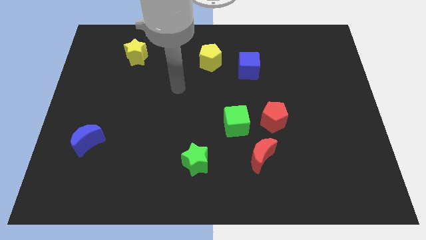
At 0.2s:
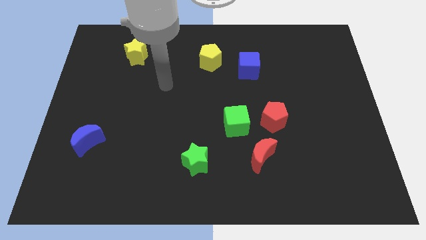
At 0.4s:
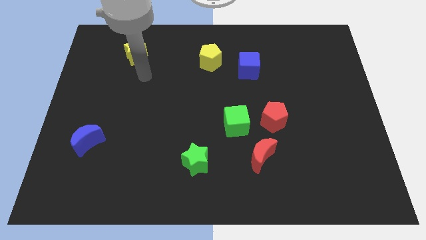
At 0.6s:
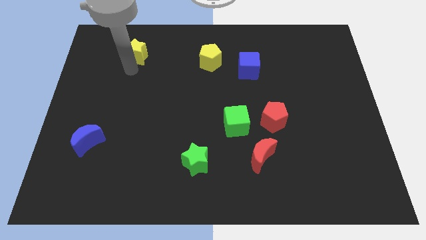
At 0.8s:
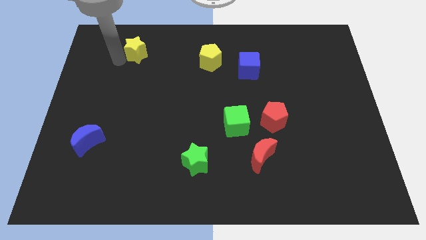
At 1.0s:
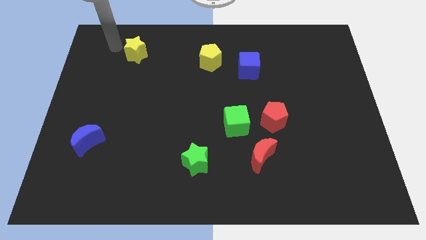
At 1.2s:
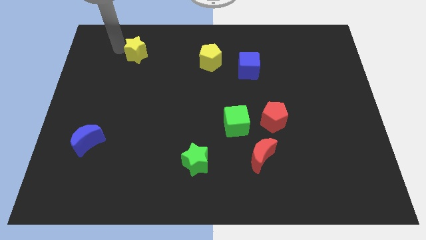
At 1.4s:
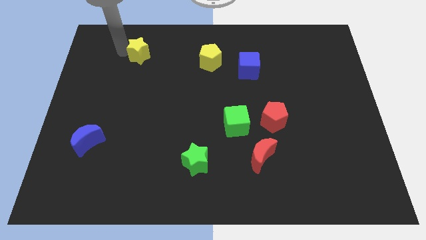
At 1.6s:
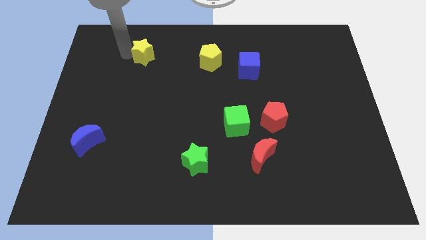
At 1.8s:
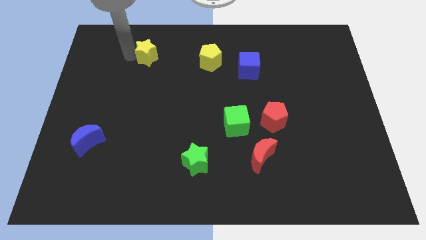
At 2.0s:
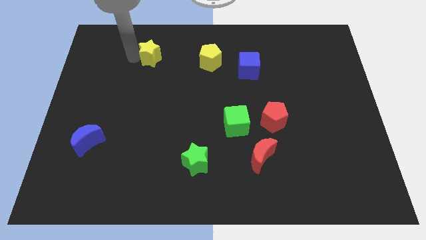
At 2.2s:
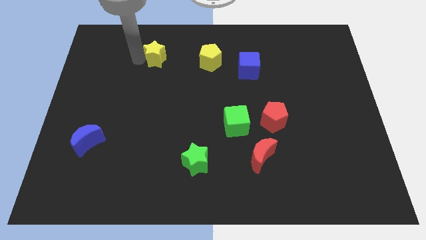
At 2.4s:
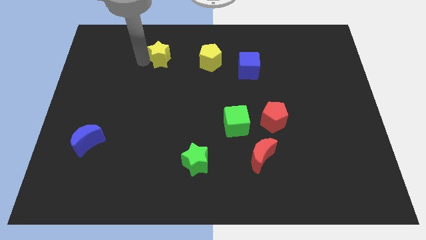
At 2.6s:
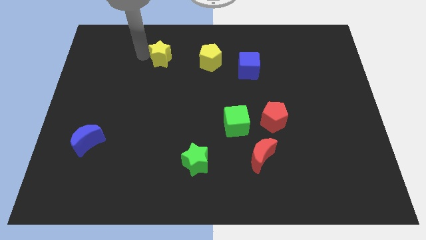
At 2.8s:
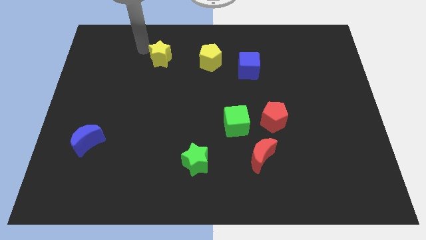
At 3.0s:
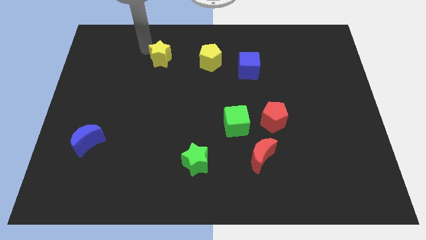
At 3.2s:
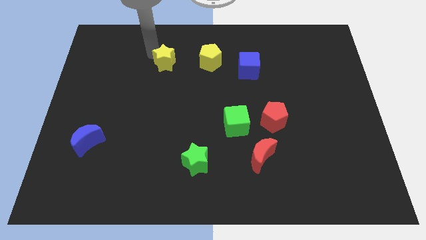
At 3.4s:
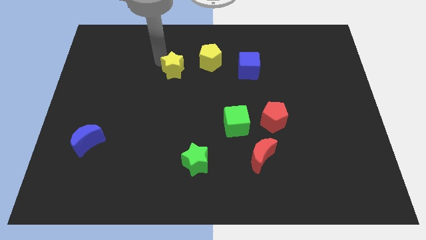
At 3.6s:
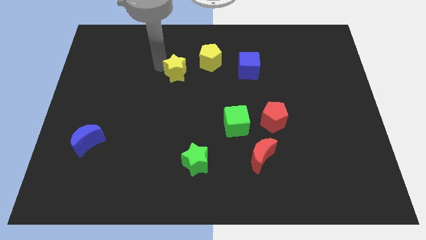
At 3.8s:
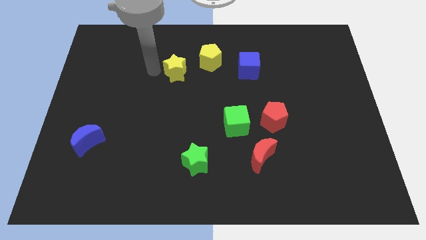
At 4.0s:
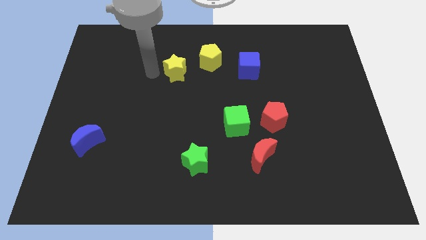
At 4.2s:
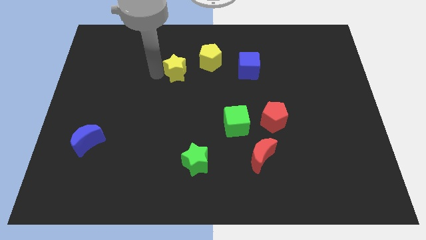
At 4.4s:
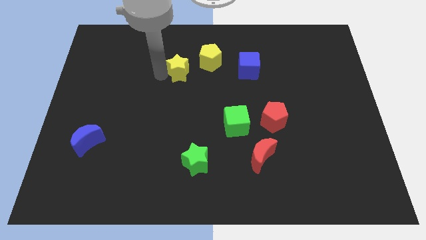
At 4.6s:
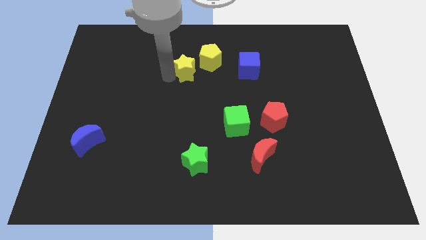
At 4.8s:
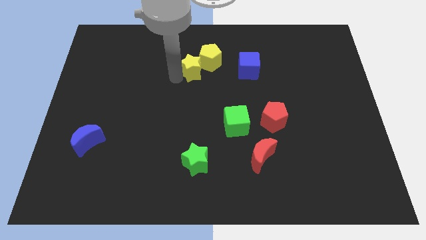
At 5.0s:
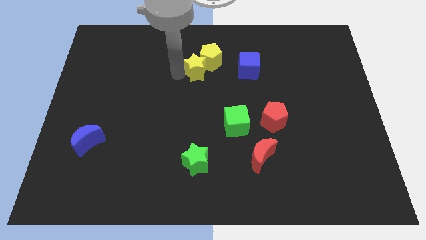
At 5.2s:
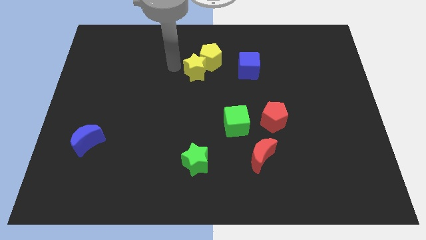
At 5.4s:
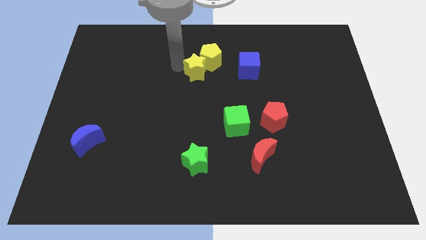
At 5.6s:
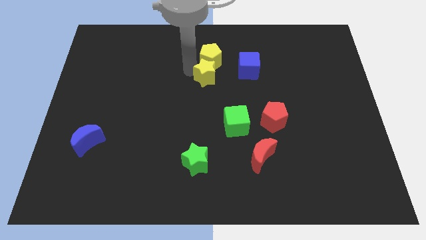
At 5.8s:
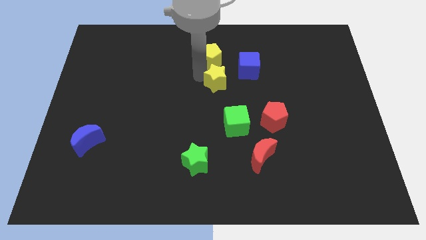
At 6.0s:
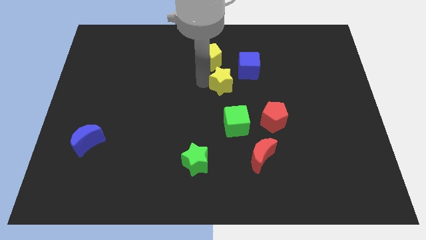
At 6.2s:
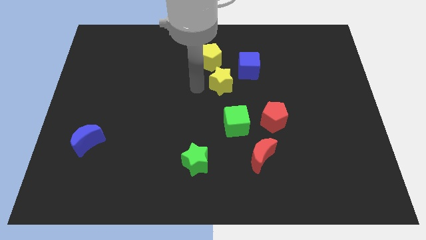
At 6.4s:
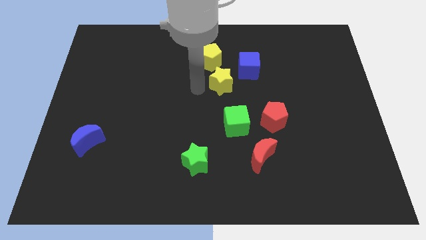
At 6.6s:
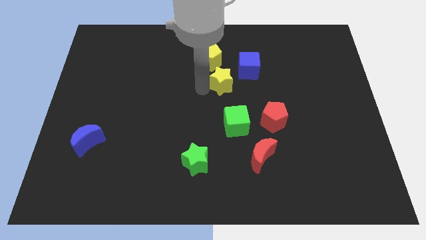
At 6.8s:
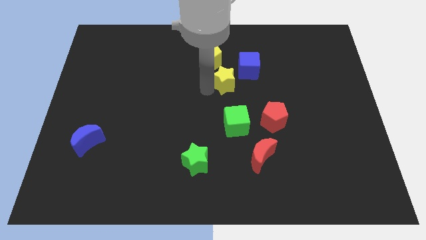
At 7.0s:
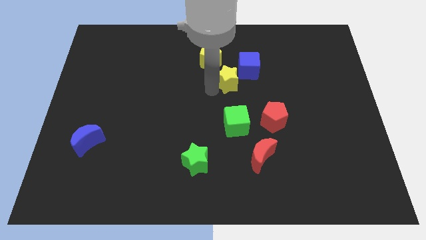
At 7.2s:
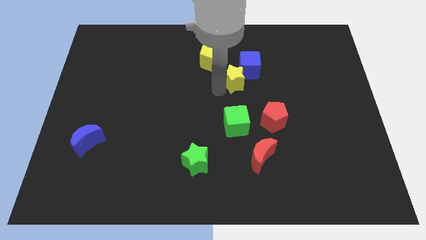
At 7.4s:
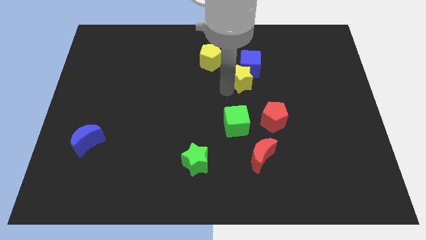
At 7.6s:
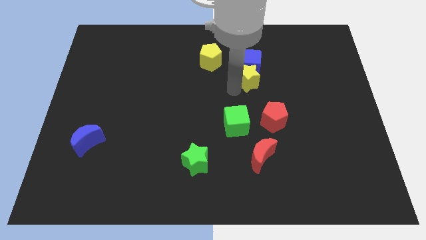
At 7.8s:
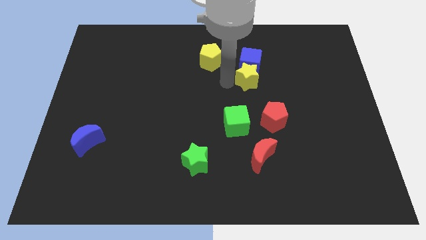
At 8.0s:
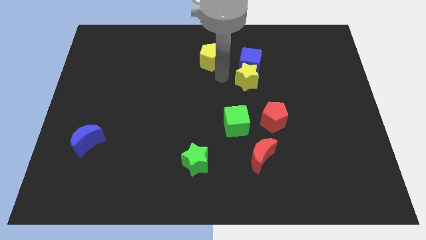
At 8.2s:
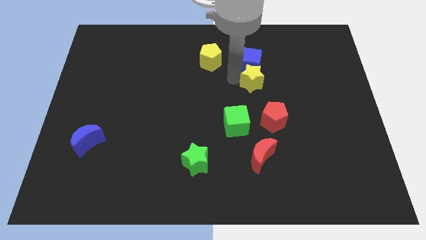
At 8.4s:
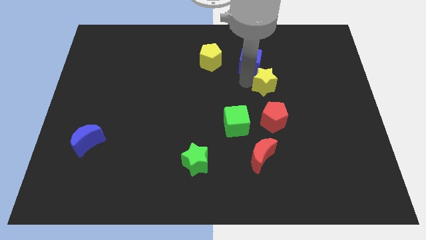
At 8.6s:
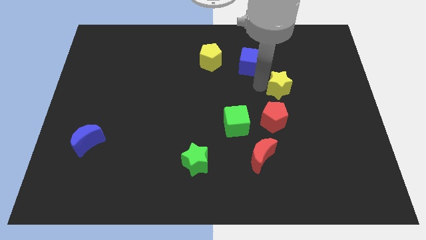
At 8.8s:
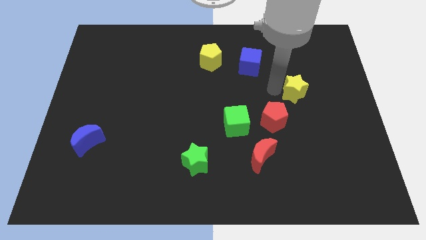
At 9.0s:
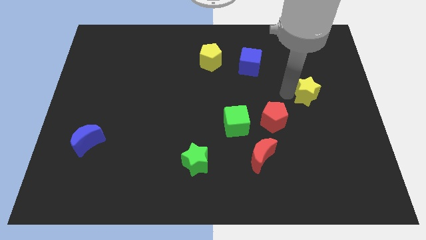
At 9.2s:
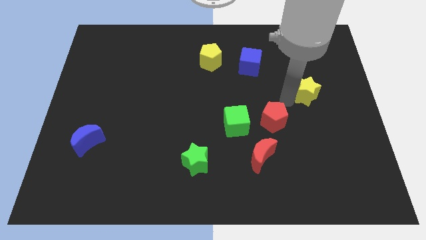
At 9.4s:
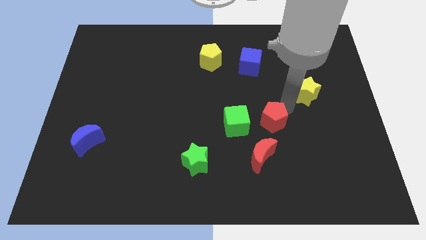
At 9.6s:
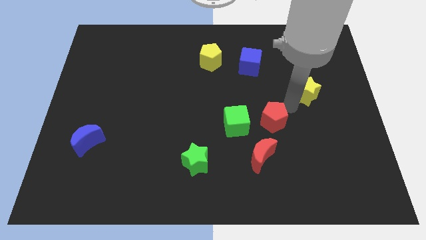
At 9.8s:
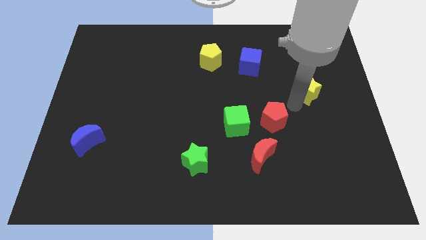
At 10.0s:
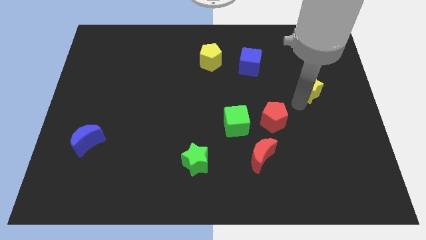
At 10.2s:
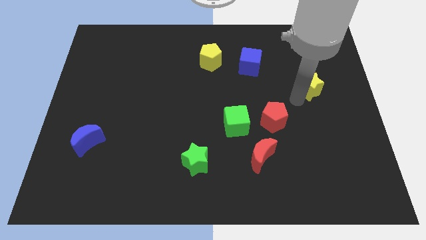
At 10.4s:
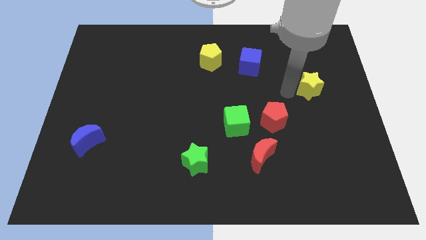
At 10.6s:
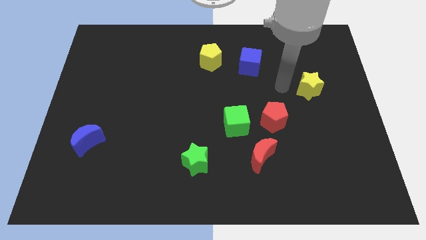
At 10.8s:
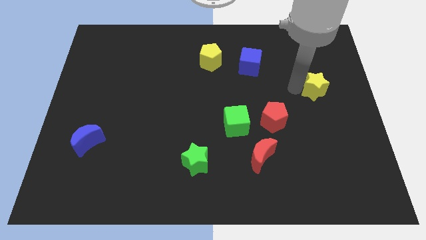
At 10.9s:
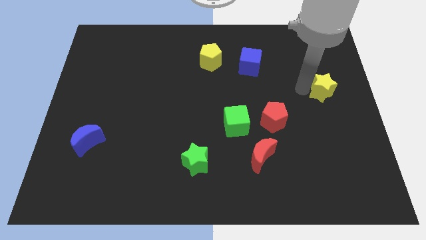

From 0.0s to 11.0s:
move the yellow star to the right side
